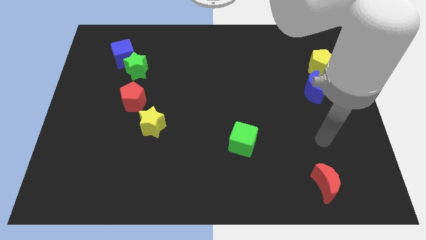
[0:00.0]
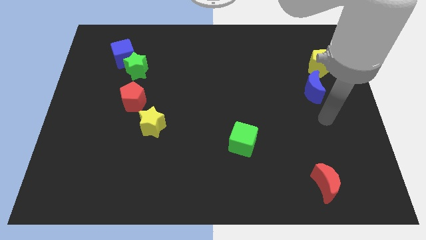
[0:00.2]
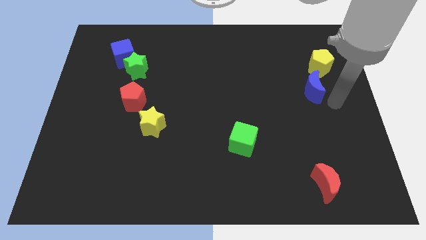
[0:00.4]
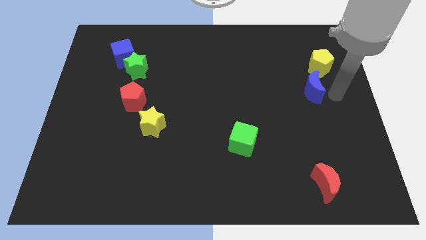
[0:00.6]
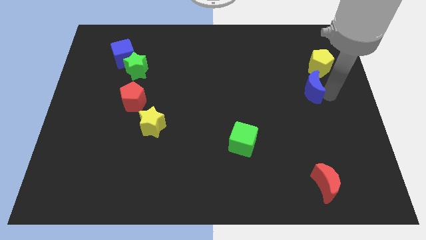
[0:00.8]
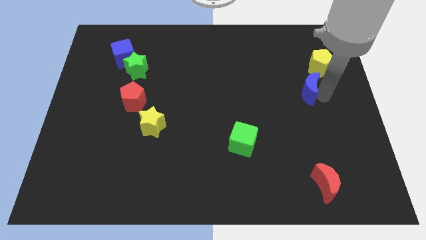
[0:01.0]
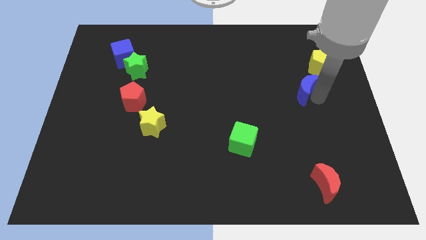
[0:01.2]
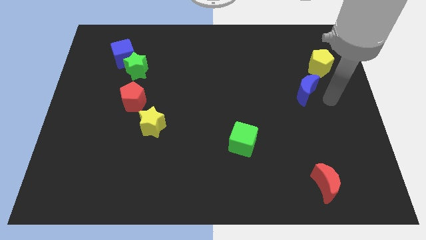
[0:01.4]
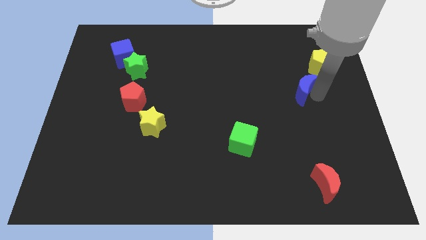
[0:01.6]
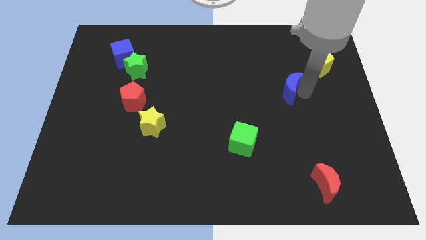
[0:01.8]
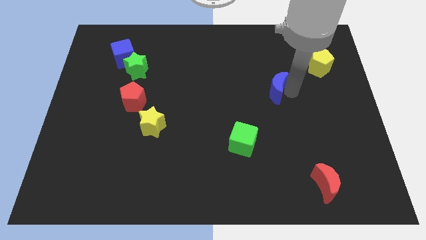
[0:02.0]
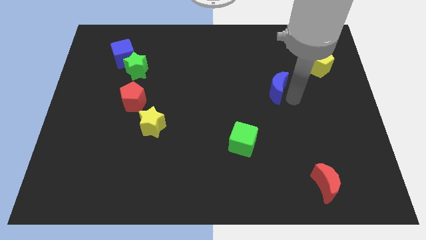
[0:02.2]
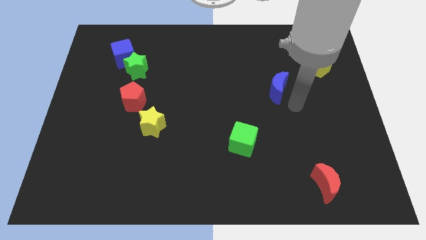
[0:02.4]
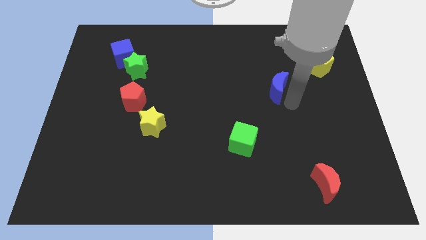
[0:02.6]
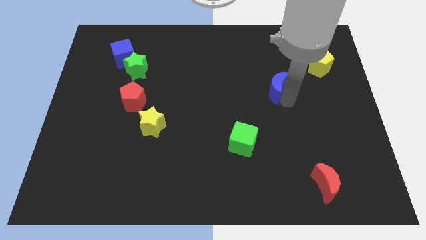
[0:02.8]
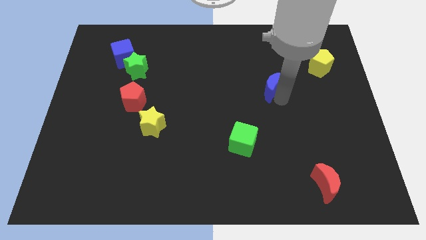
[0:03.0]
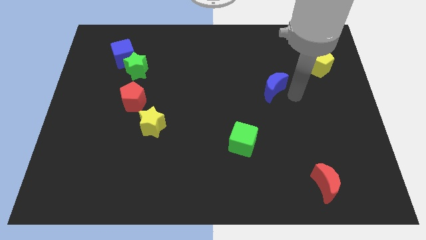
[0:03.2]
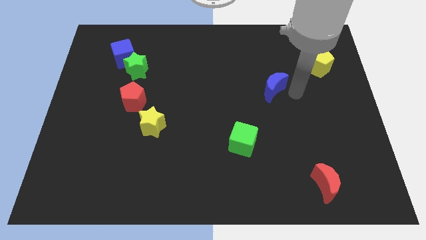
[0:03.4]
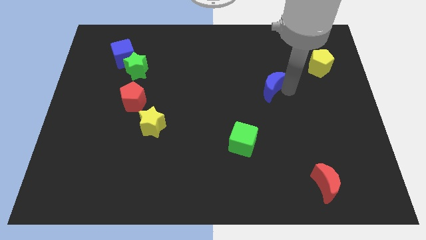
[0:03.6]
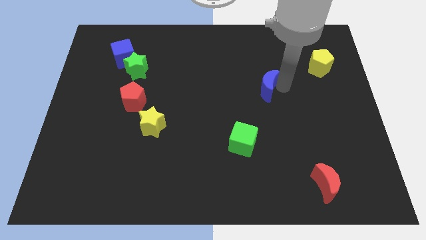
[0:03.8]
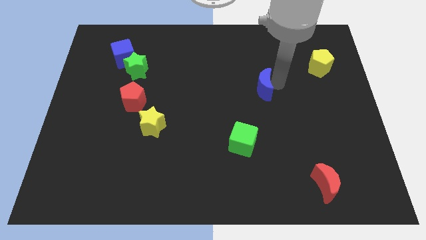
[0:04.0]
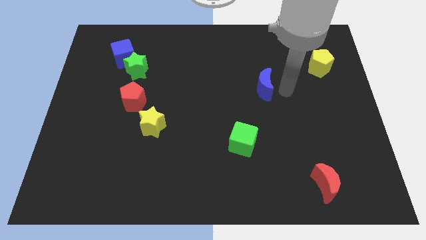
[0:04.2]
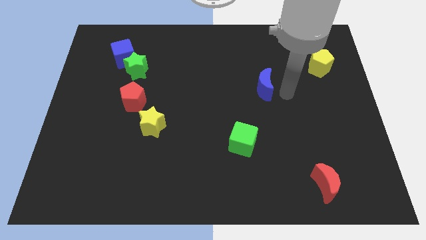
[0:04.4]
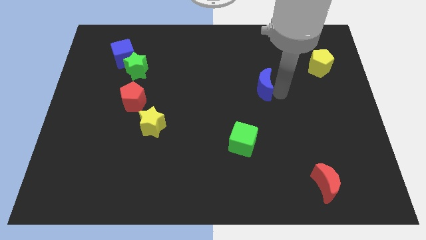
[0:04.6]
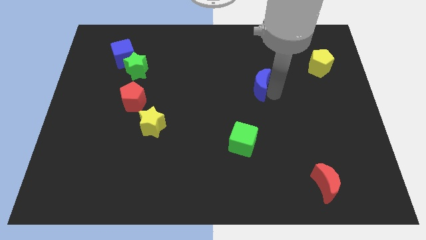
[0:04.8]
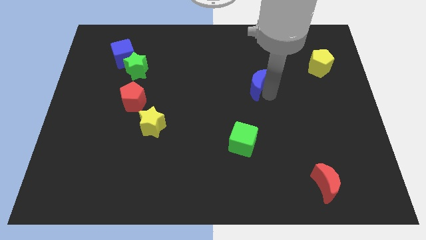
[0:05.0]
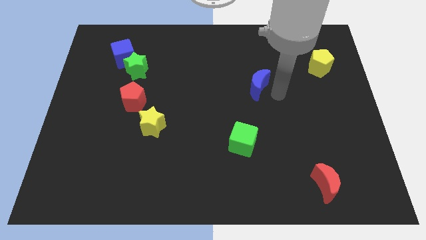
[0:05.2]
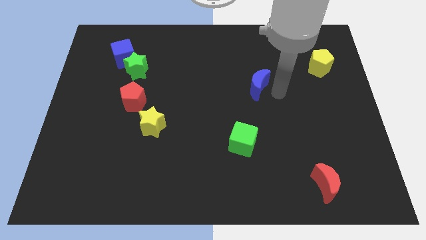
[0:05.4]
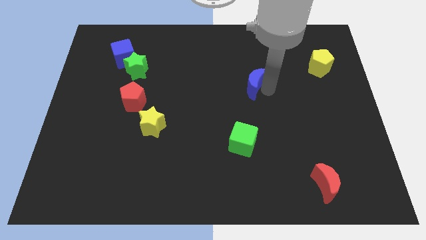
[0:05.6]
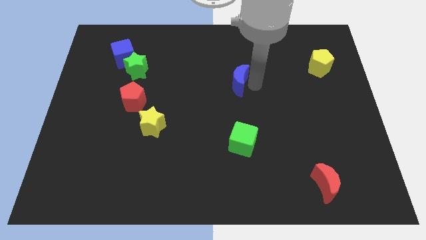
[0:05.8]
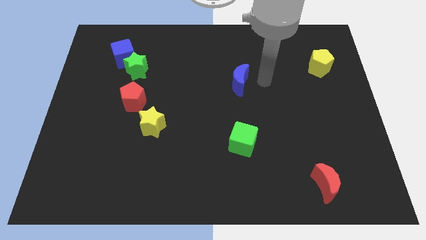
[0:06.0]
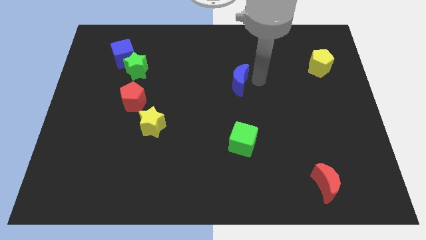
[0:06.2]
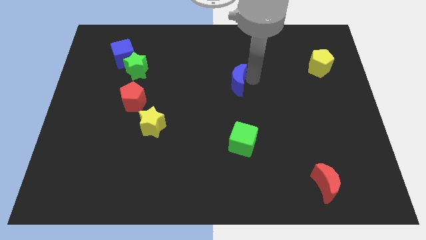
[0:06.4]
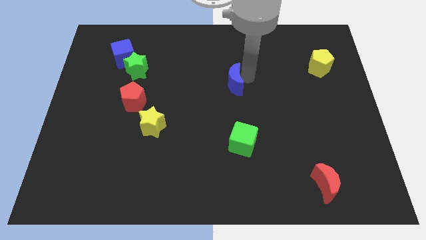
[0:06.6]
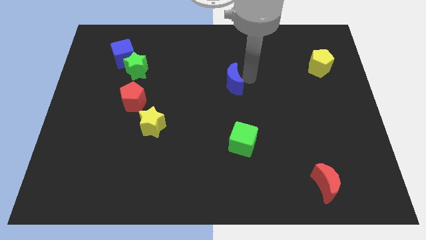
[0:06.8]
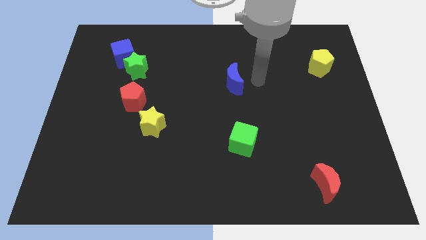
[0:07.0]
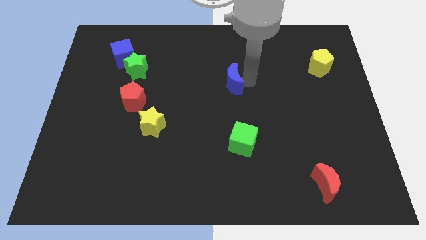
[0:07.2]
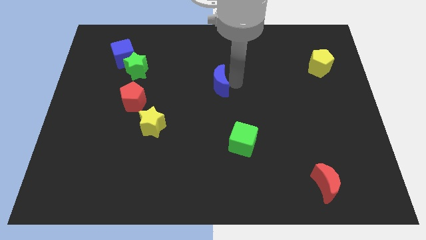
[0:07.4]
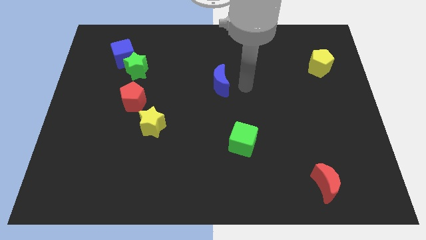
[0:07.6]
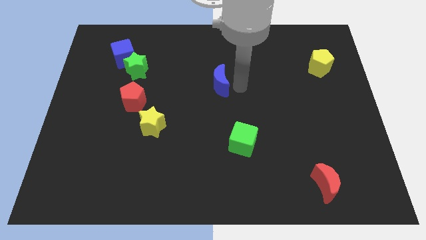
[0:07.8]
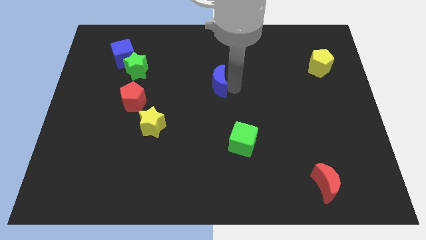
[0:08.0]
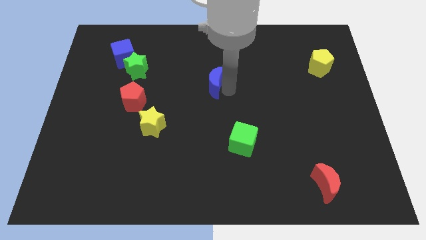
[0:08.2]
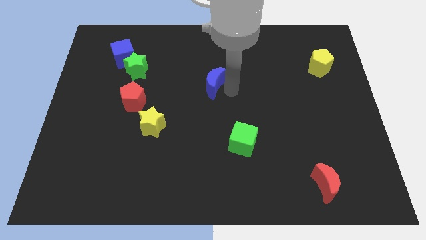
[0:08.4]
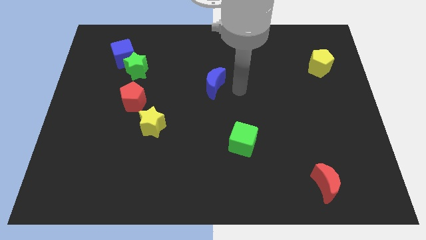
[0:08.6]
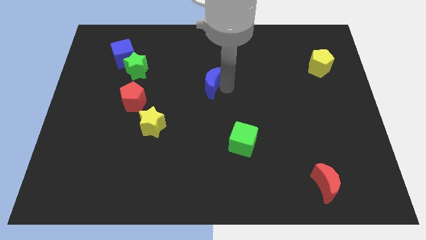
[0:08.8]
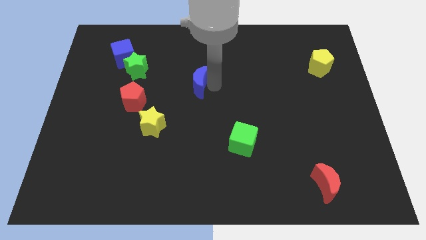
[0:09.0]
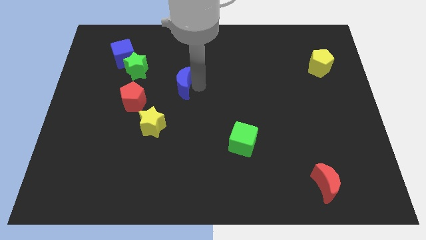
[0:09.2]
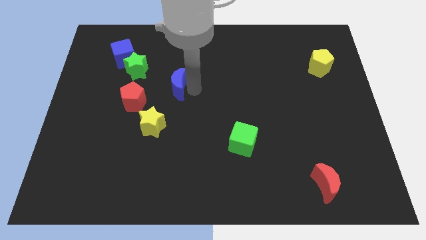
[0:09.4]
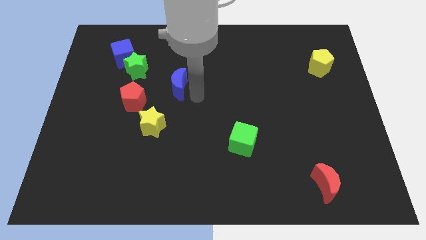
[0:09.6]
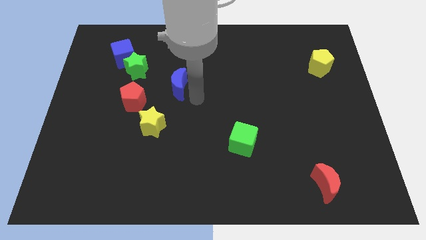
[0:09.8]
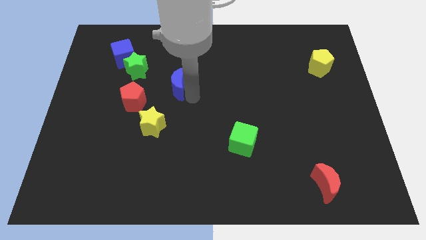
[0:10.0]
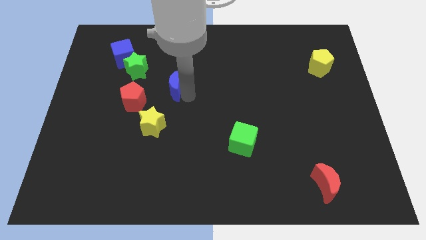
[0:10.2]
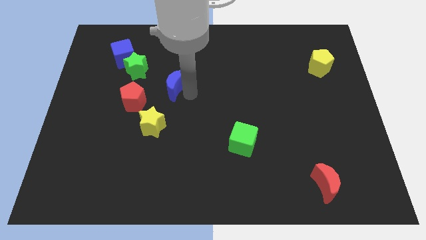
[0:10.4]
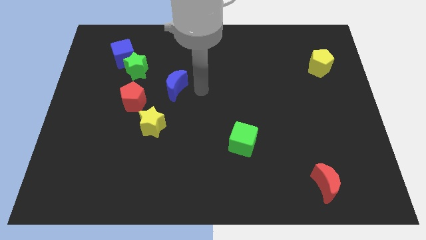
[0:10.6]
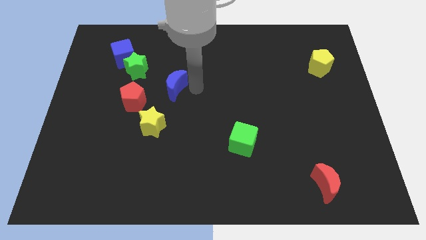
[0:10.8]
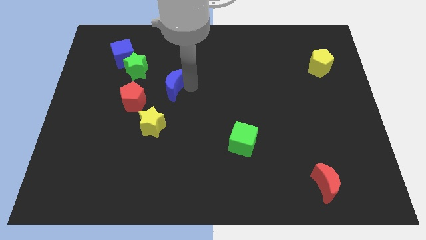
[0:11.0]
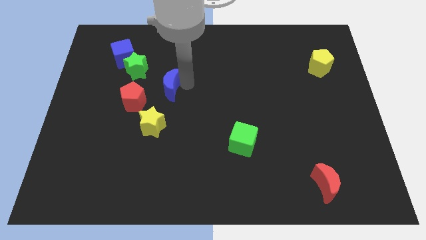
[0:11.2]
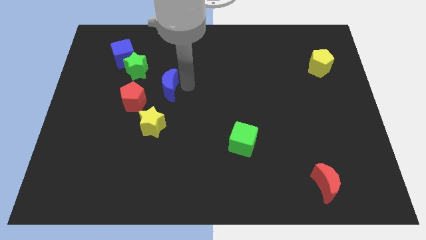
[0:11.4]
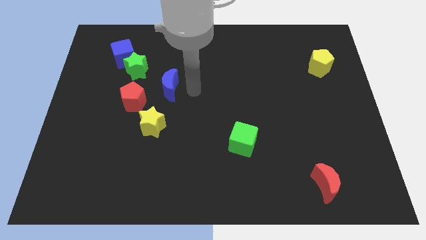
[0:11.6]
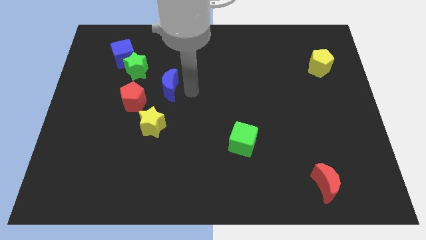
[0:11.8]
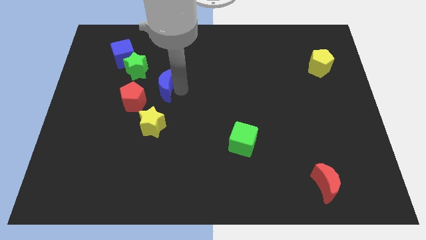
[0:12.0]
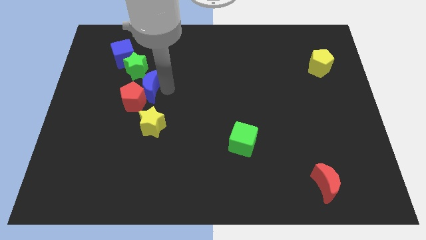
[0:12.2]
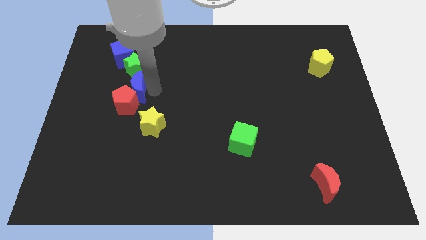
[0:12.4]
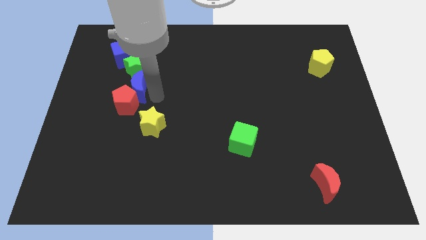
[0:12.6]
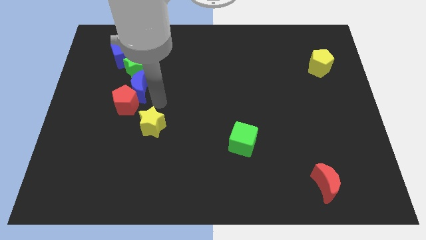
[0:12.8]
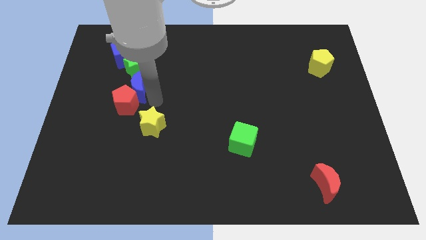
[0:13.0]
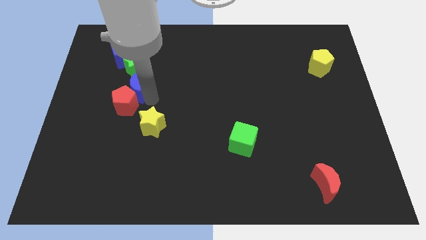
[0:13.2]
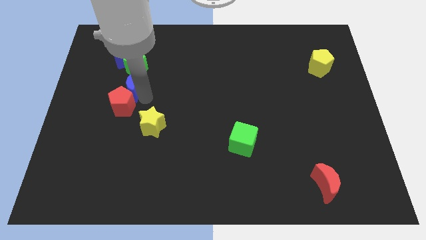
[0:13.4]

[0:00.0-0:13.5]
slide the blue moon diagonally down and to the left of the green star
